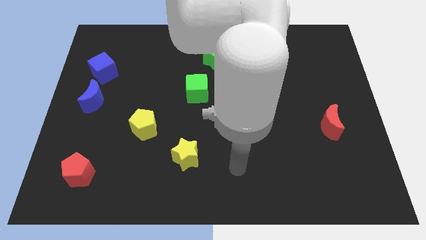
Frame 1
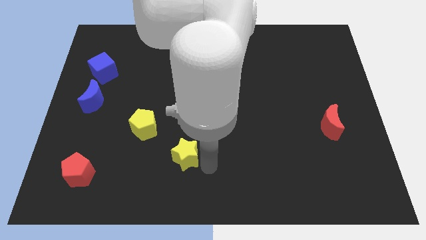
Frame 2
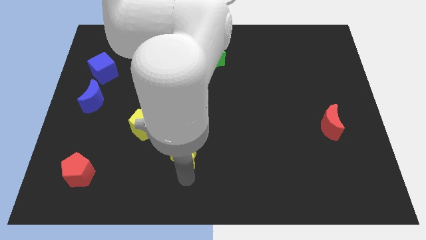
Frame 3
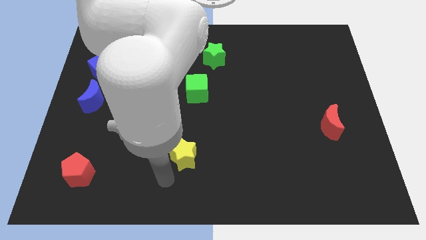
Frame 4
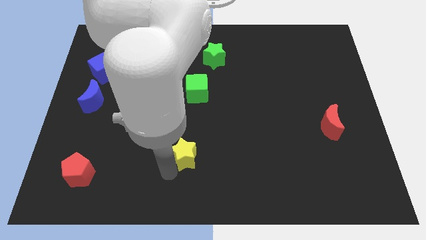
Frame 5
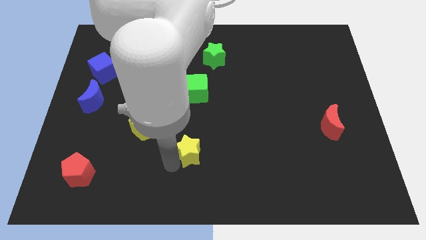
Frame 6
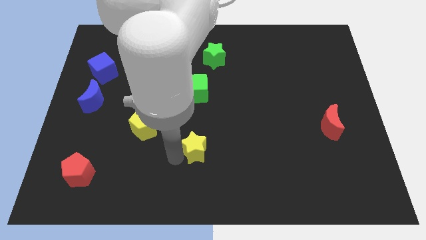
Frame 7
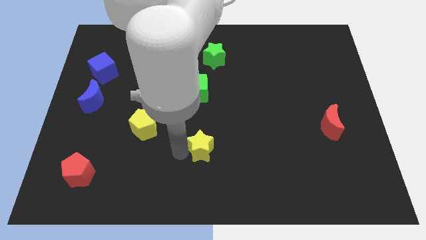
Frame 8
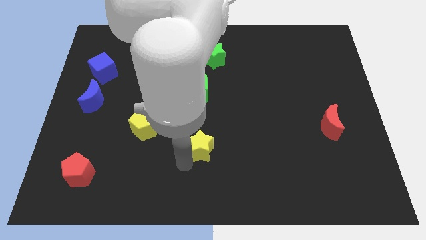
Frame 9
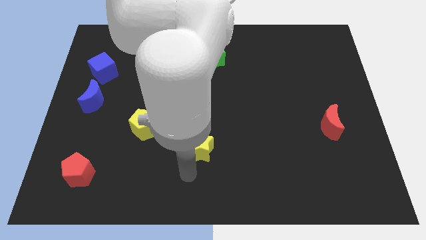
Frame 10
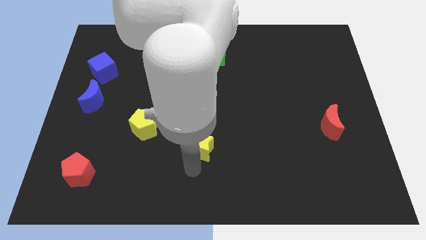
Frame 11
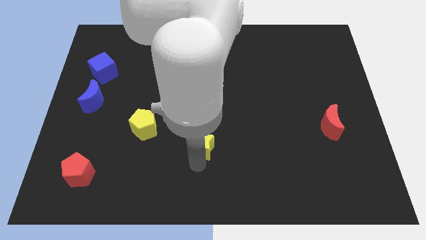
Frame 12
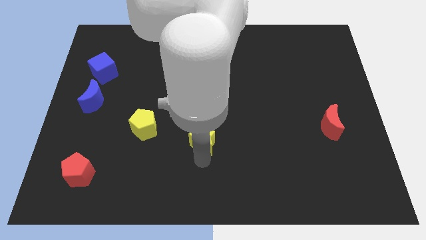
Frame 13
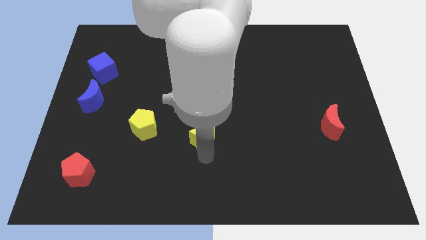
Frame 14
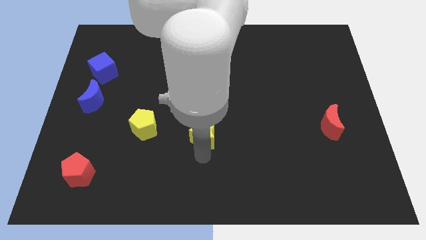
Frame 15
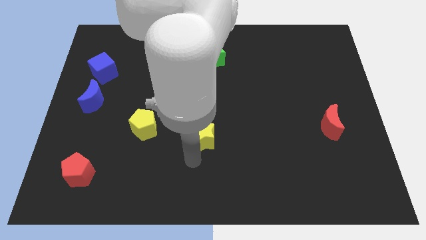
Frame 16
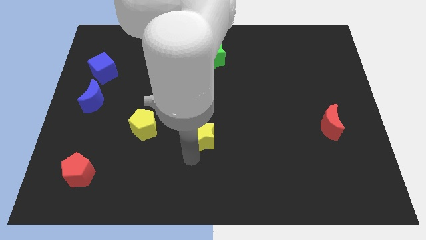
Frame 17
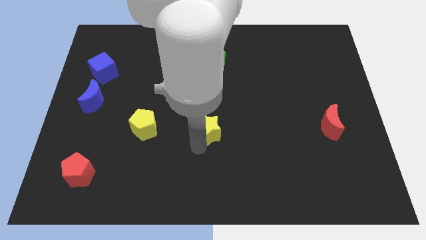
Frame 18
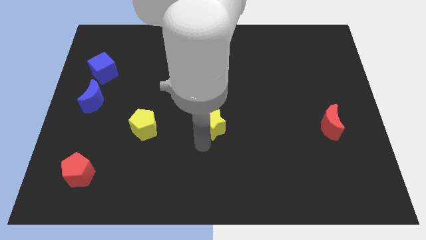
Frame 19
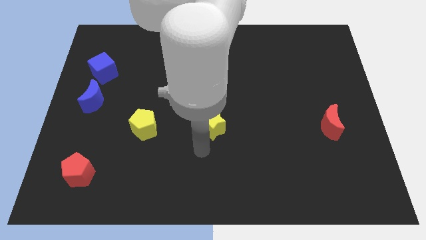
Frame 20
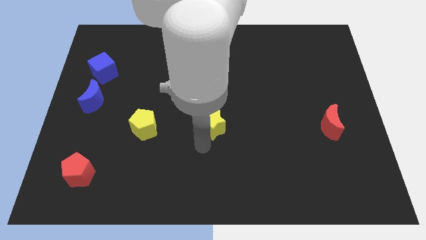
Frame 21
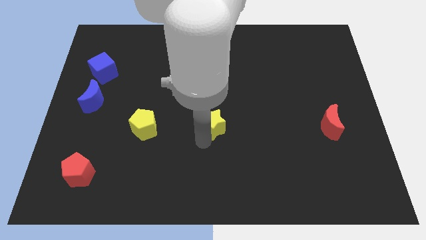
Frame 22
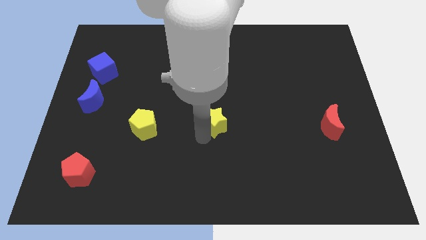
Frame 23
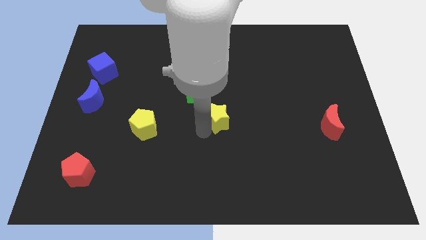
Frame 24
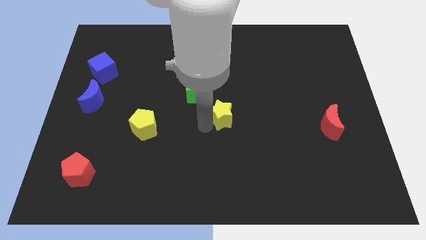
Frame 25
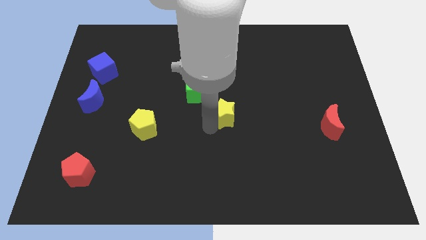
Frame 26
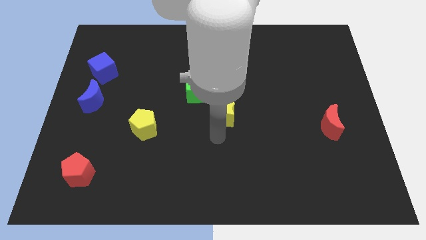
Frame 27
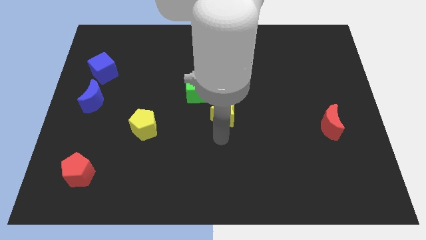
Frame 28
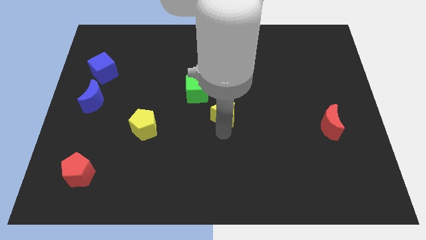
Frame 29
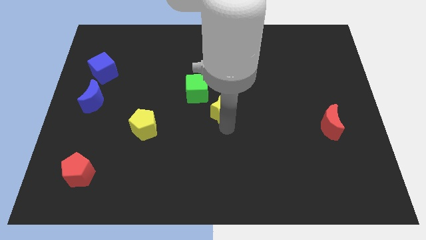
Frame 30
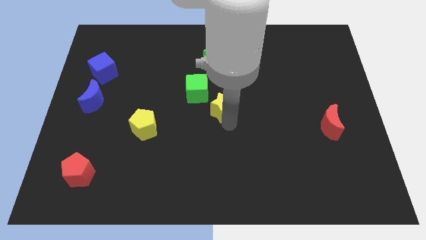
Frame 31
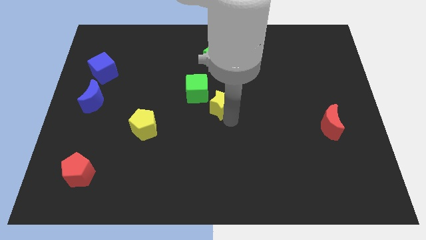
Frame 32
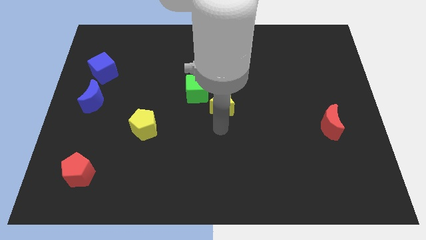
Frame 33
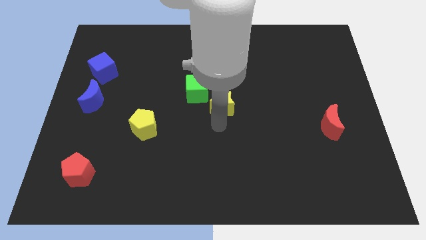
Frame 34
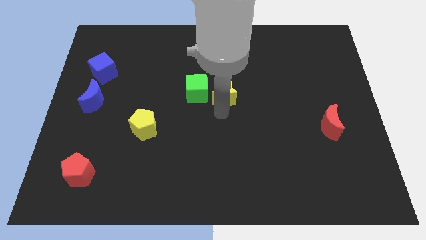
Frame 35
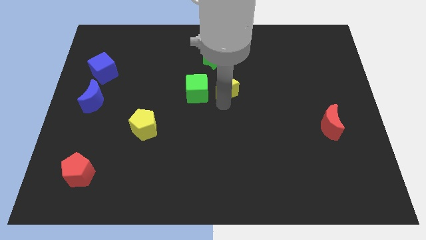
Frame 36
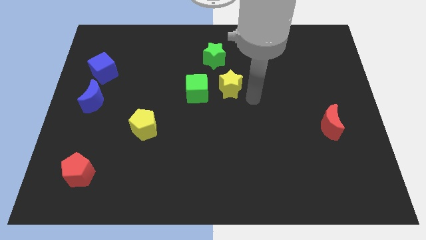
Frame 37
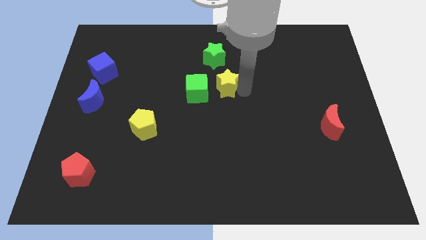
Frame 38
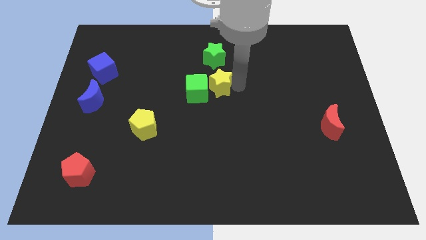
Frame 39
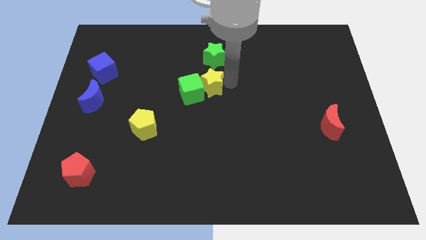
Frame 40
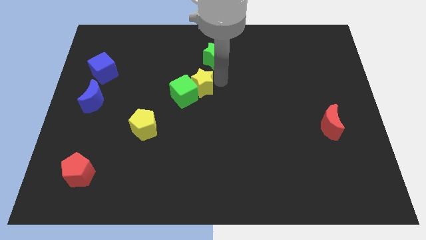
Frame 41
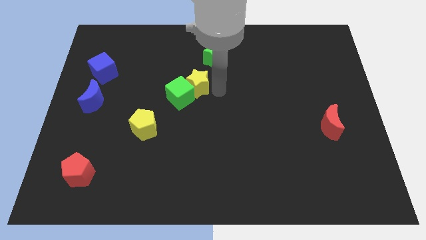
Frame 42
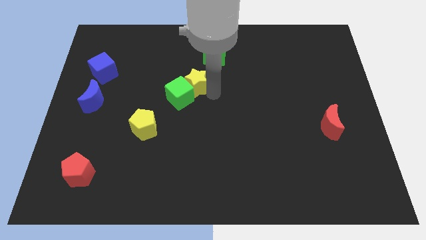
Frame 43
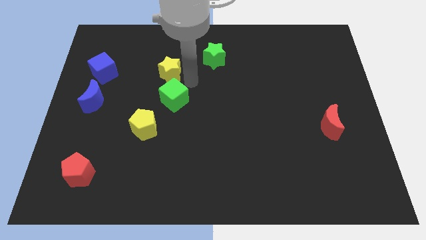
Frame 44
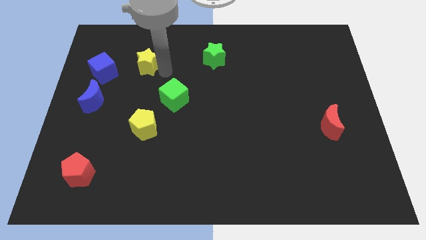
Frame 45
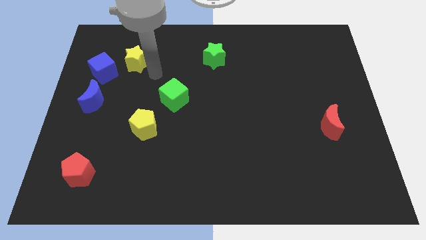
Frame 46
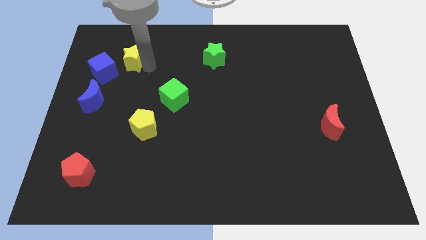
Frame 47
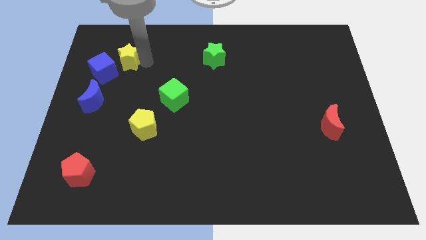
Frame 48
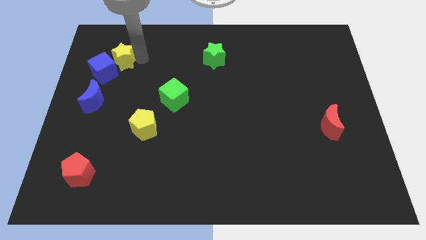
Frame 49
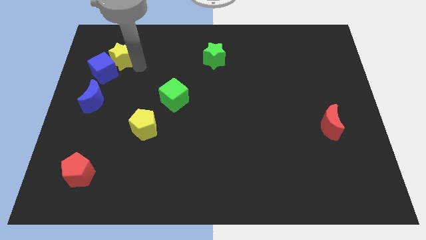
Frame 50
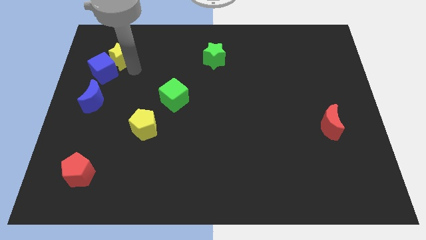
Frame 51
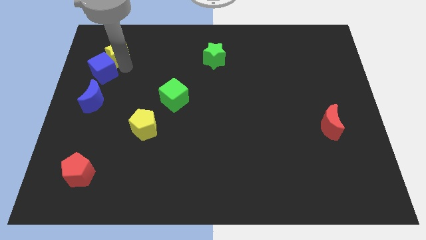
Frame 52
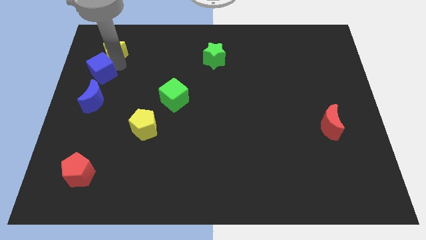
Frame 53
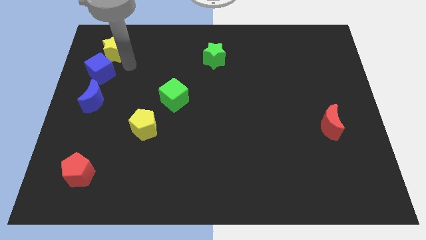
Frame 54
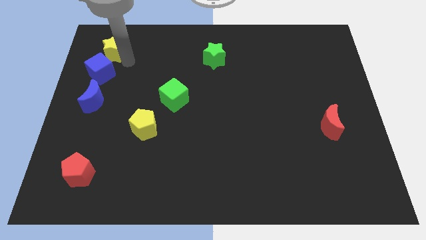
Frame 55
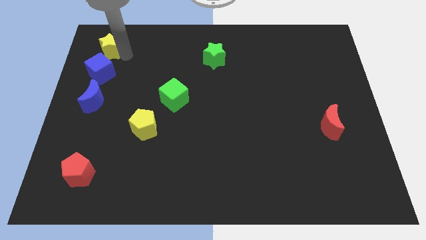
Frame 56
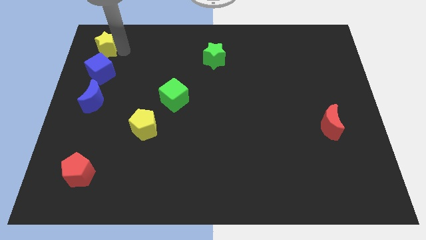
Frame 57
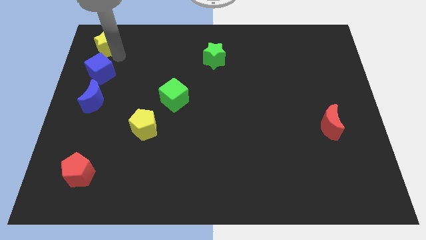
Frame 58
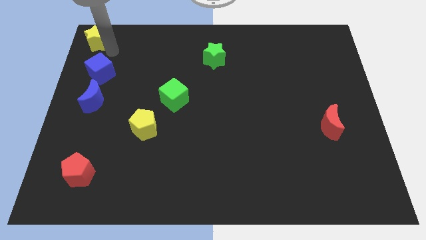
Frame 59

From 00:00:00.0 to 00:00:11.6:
slide the yellow star to the top left of the board
